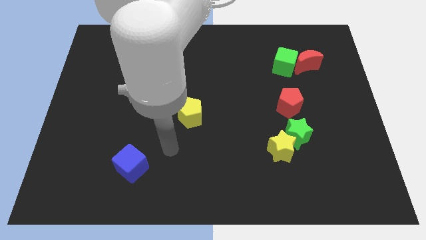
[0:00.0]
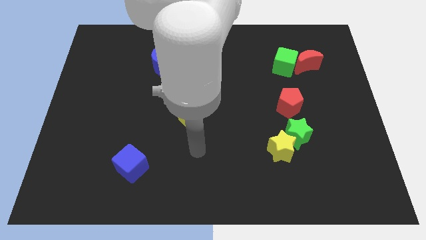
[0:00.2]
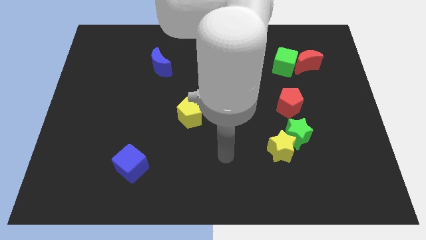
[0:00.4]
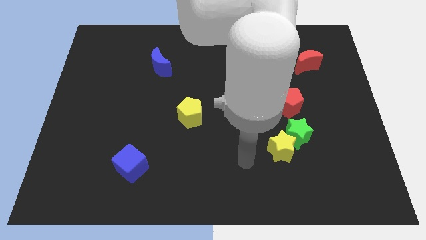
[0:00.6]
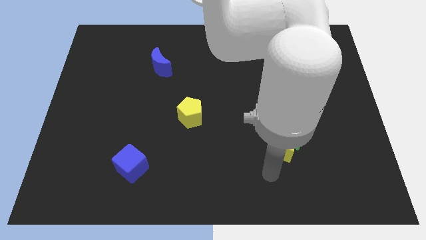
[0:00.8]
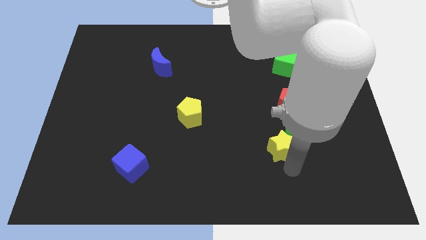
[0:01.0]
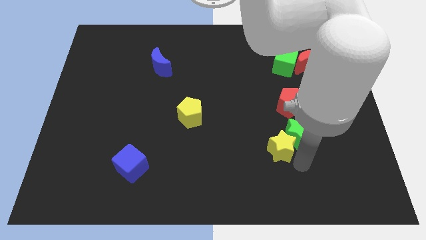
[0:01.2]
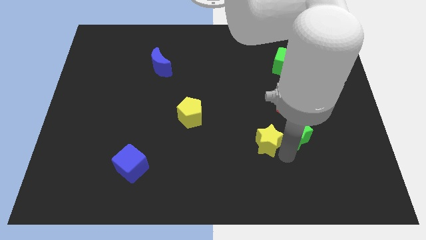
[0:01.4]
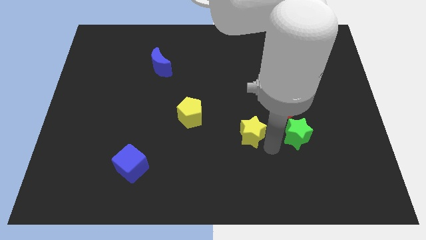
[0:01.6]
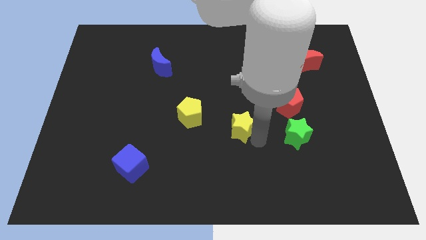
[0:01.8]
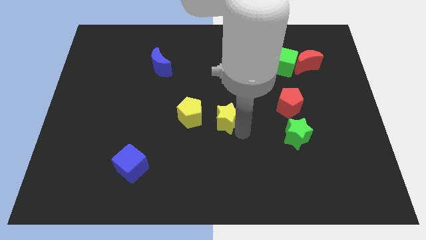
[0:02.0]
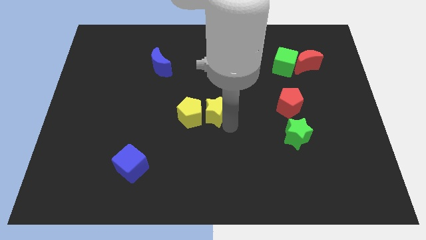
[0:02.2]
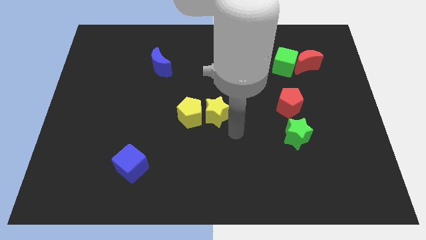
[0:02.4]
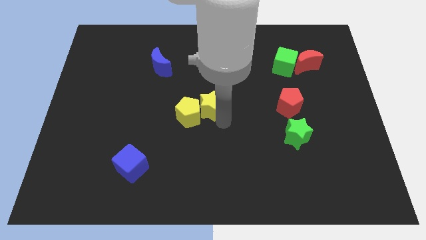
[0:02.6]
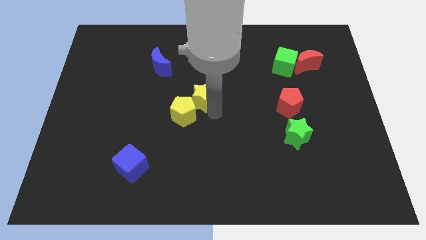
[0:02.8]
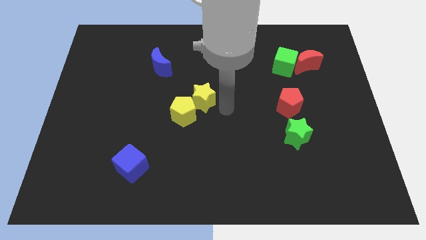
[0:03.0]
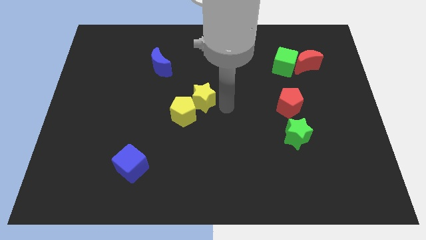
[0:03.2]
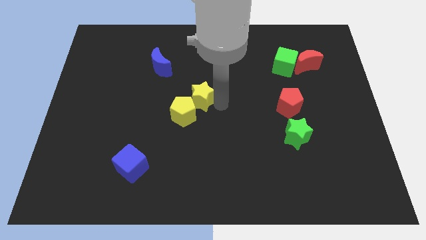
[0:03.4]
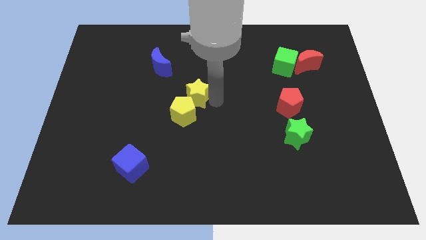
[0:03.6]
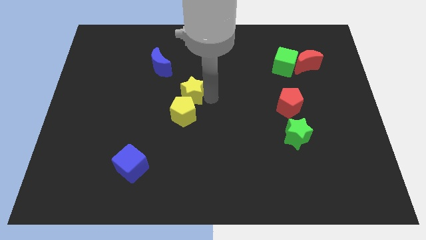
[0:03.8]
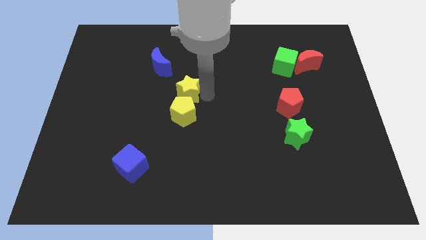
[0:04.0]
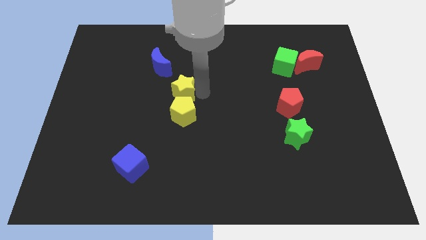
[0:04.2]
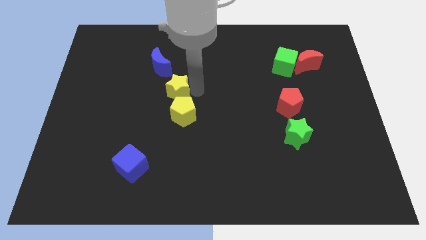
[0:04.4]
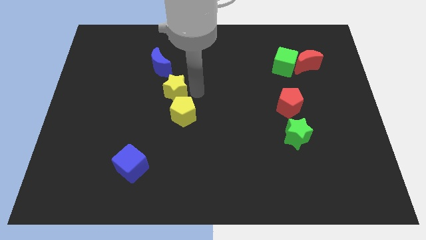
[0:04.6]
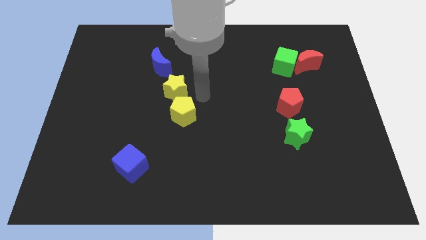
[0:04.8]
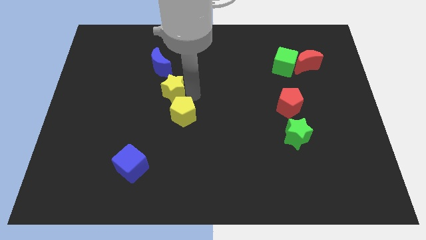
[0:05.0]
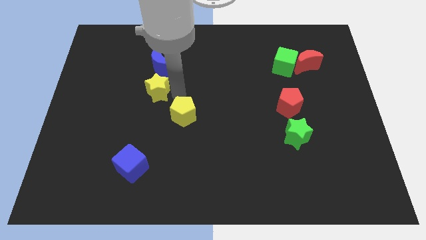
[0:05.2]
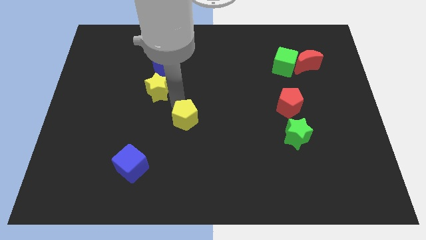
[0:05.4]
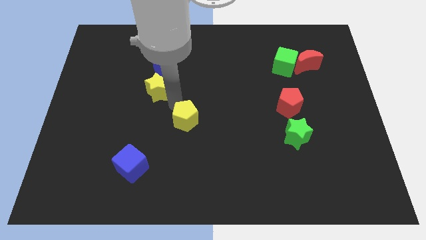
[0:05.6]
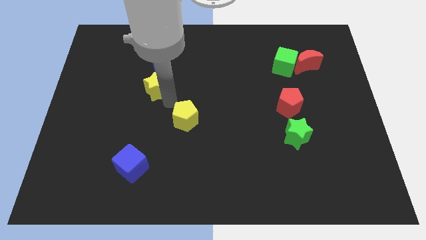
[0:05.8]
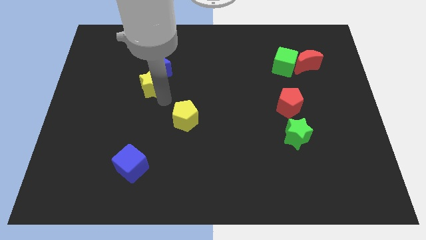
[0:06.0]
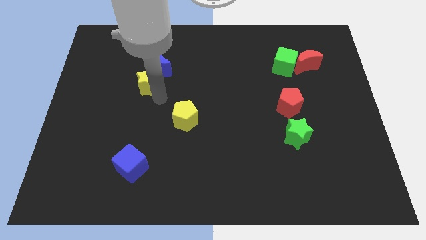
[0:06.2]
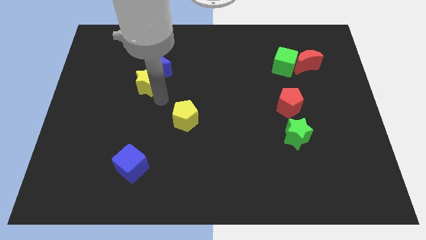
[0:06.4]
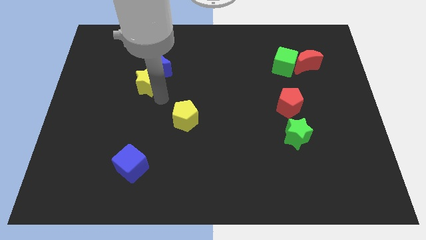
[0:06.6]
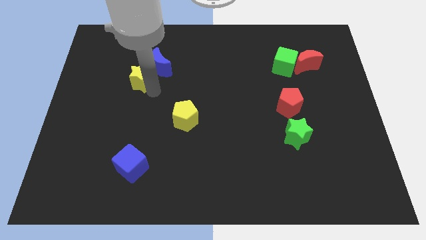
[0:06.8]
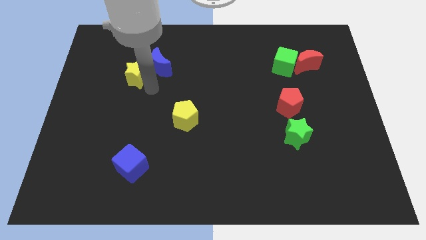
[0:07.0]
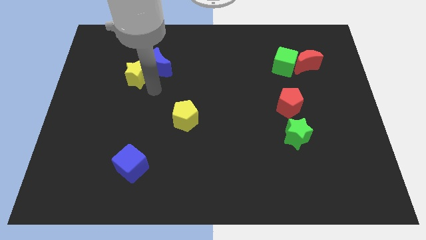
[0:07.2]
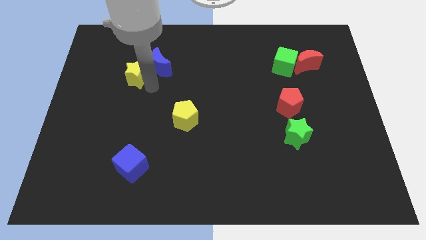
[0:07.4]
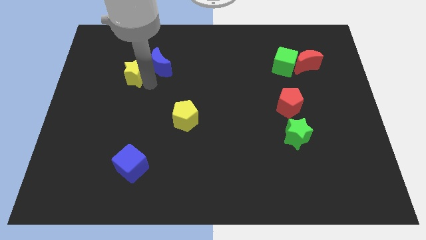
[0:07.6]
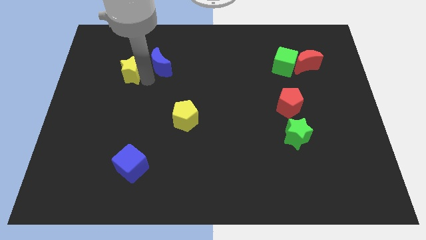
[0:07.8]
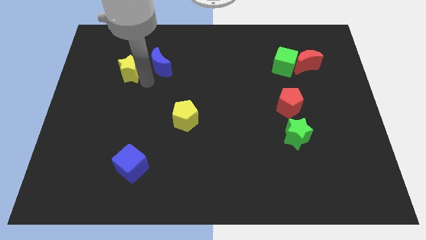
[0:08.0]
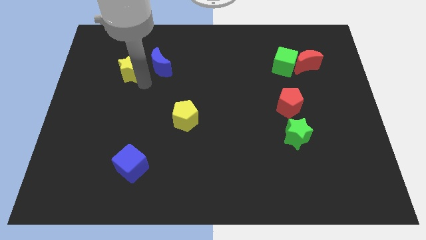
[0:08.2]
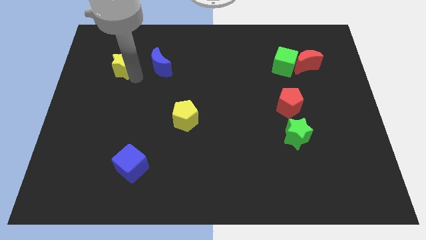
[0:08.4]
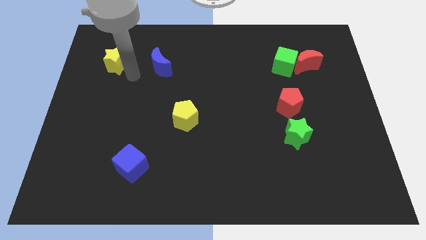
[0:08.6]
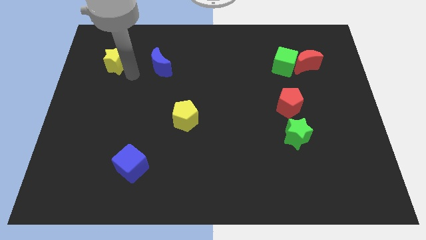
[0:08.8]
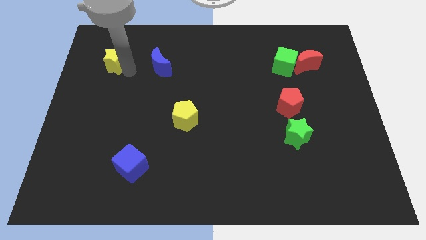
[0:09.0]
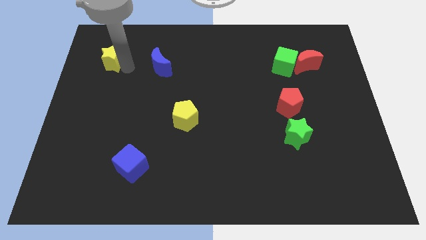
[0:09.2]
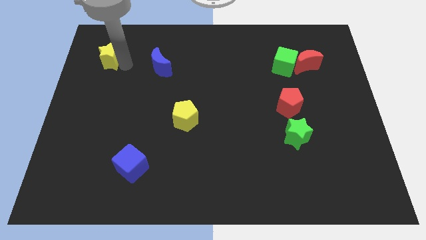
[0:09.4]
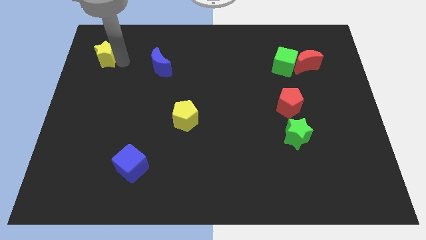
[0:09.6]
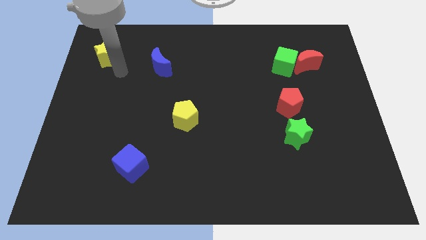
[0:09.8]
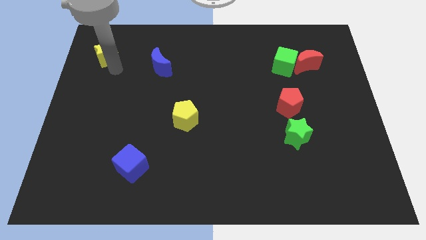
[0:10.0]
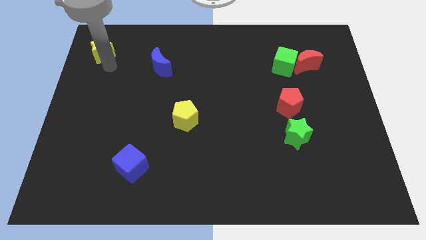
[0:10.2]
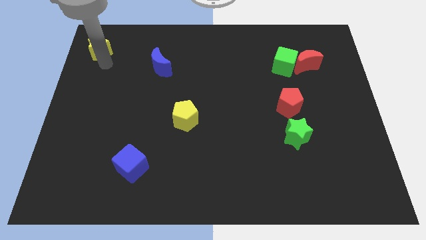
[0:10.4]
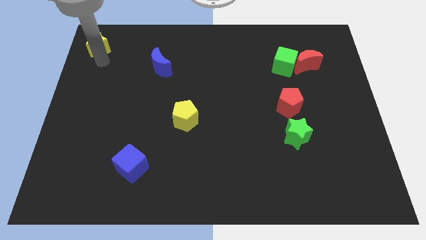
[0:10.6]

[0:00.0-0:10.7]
push the yellow star to the upper left corner
